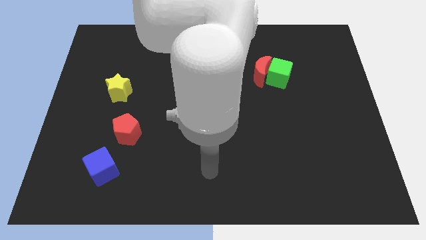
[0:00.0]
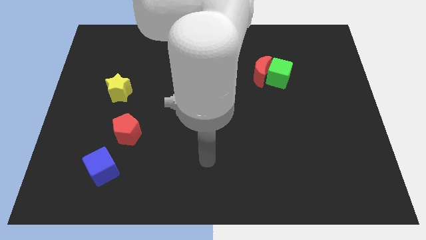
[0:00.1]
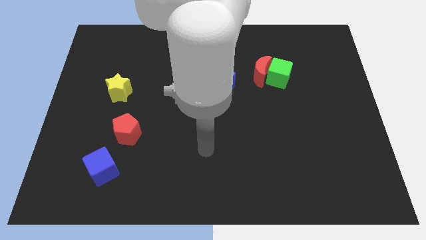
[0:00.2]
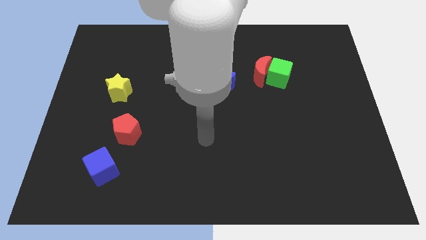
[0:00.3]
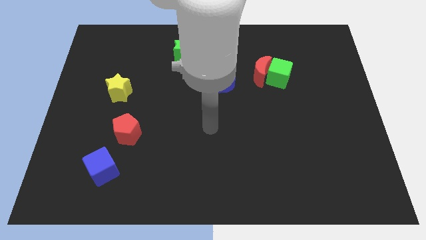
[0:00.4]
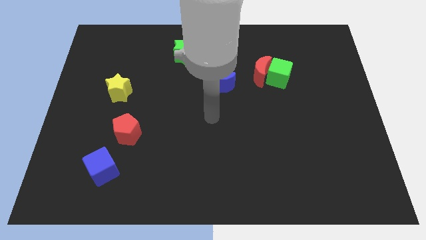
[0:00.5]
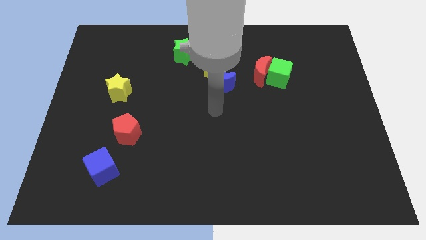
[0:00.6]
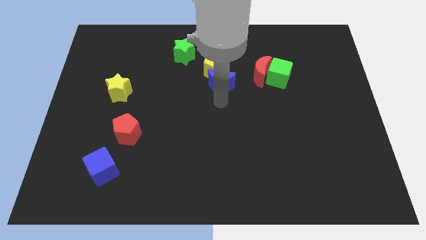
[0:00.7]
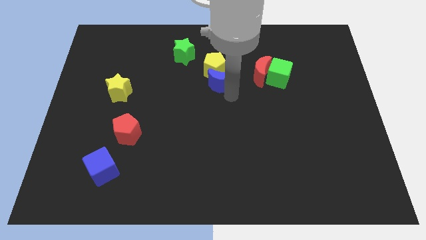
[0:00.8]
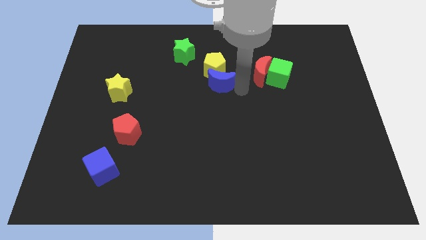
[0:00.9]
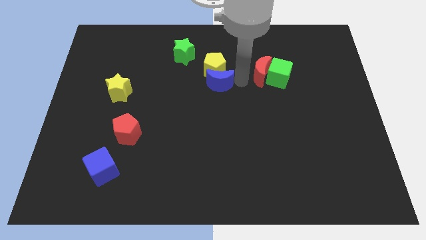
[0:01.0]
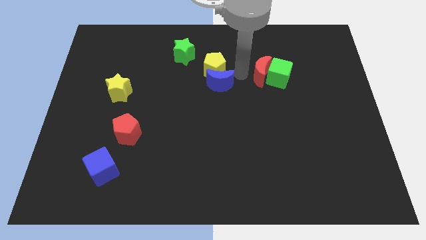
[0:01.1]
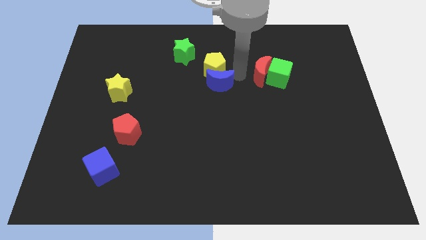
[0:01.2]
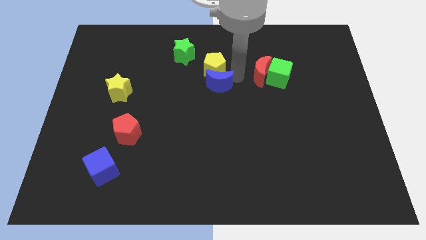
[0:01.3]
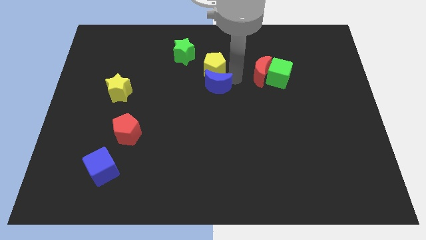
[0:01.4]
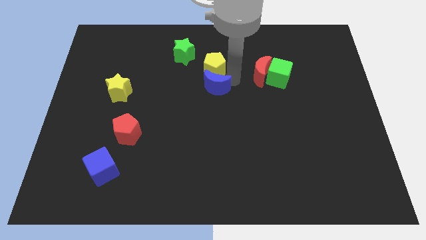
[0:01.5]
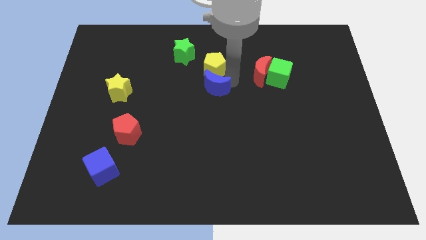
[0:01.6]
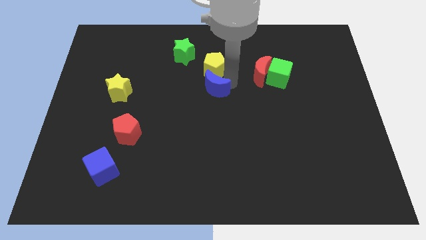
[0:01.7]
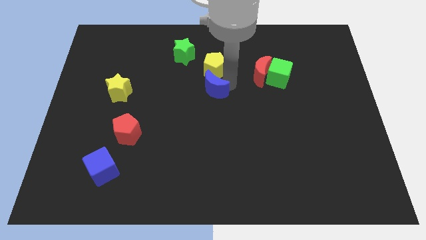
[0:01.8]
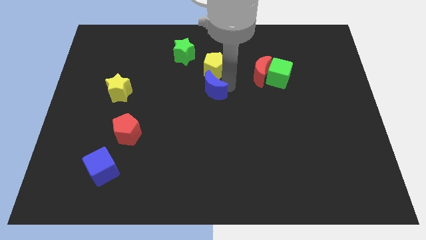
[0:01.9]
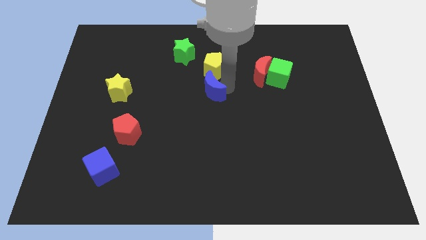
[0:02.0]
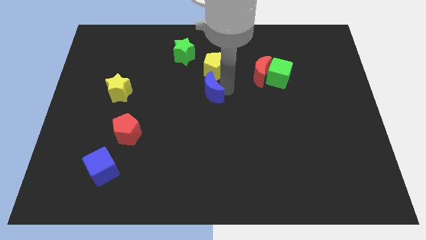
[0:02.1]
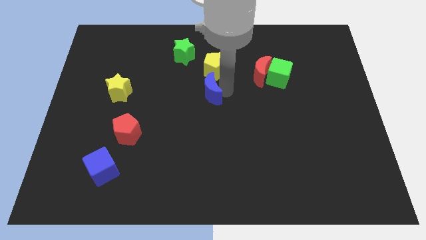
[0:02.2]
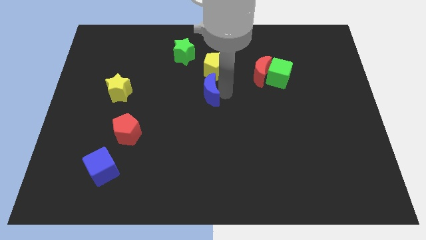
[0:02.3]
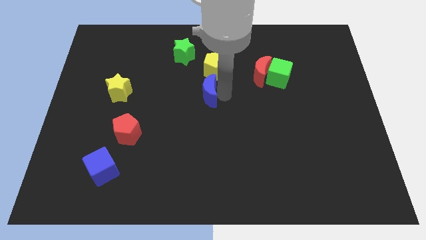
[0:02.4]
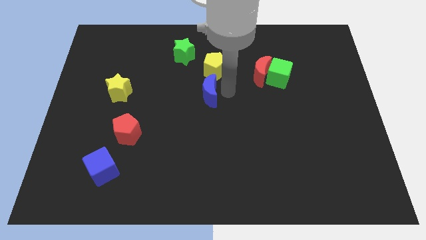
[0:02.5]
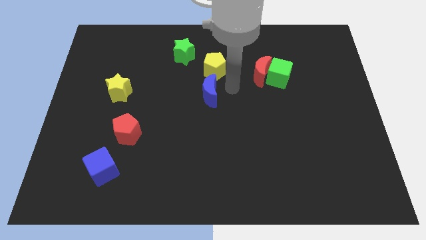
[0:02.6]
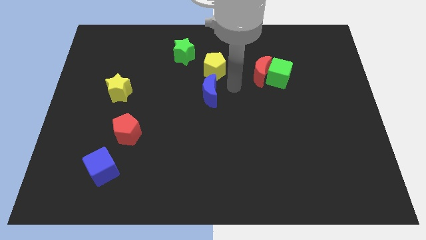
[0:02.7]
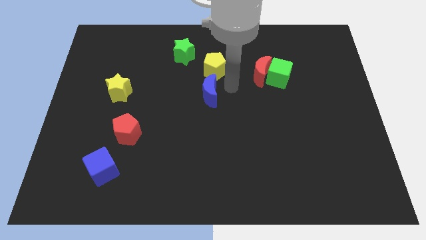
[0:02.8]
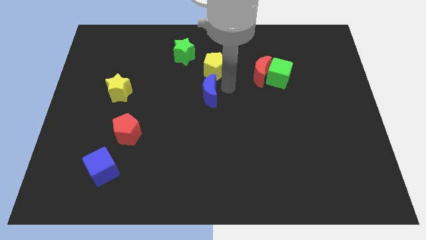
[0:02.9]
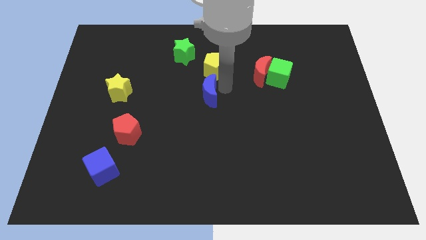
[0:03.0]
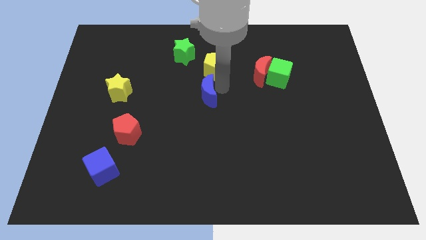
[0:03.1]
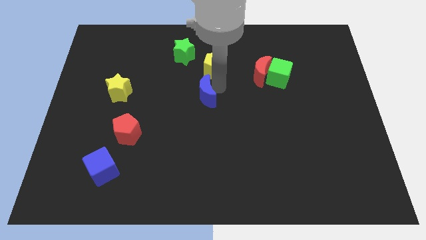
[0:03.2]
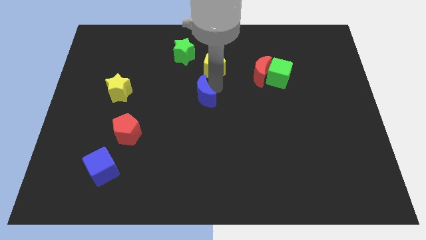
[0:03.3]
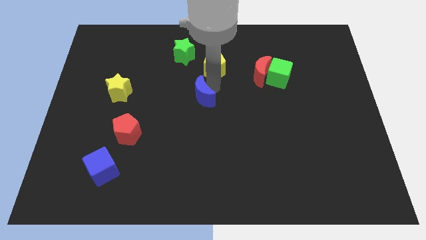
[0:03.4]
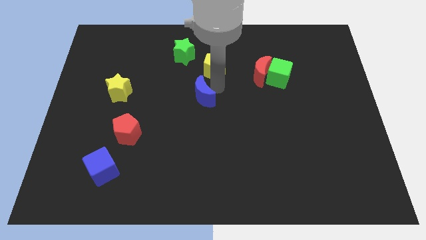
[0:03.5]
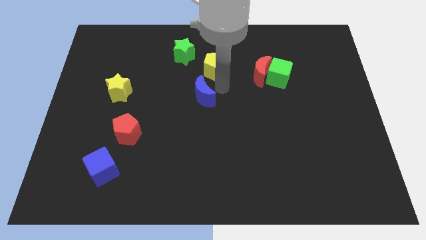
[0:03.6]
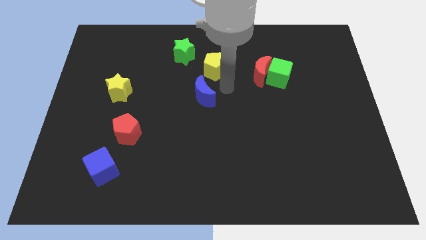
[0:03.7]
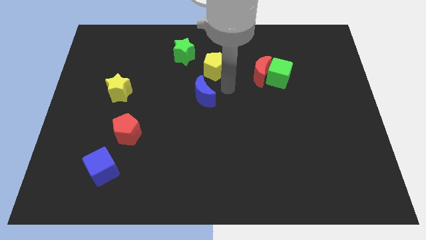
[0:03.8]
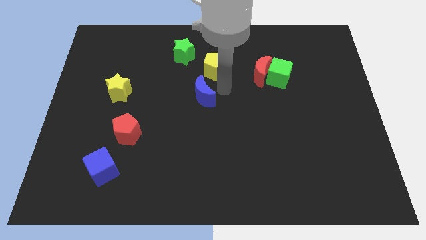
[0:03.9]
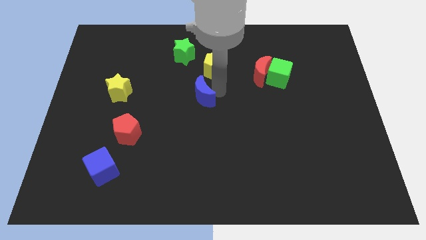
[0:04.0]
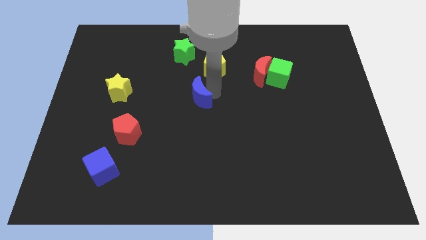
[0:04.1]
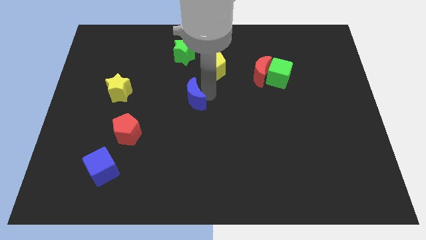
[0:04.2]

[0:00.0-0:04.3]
move the blue moon a bit diagonally downwards and to the left

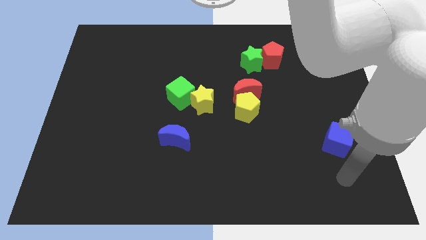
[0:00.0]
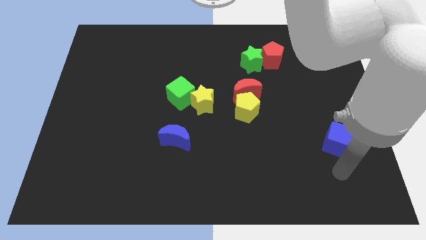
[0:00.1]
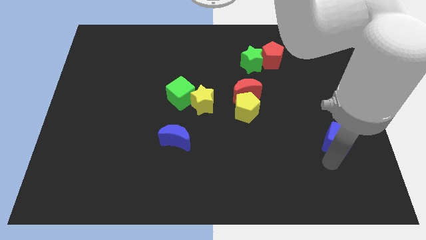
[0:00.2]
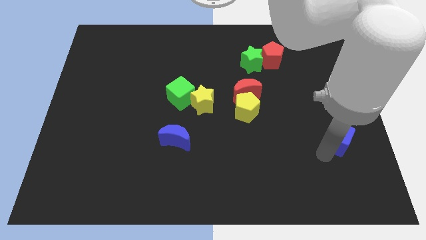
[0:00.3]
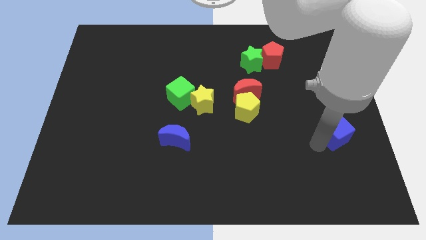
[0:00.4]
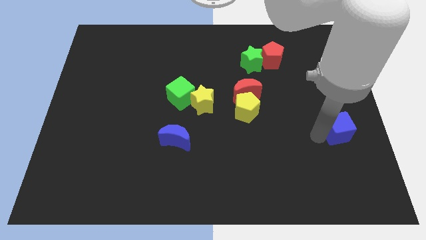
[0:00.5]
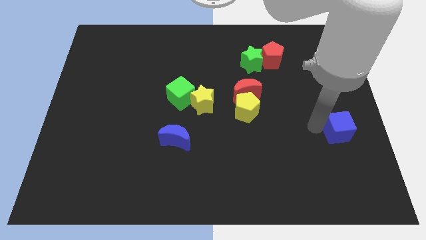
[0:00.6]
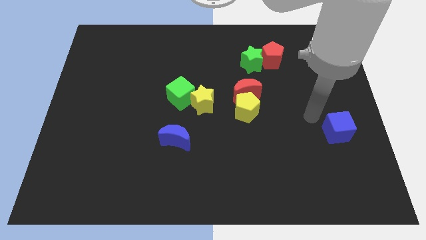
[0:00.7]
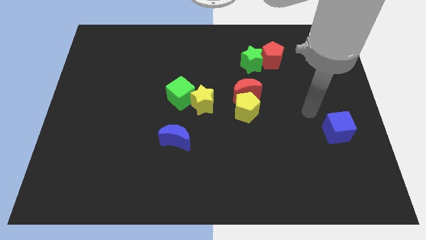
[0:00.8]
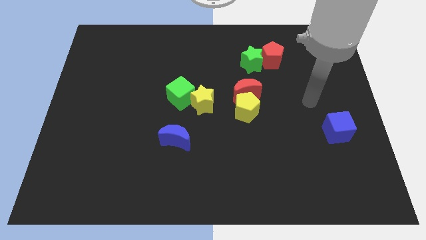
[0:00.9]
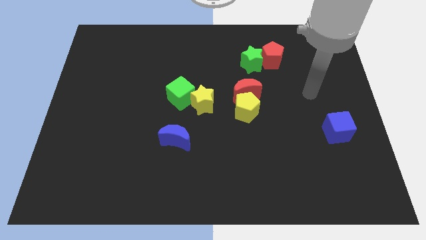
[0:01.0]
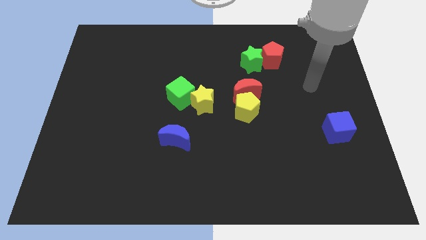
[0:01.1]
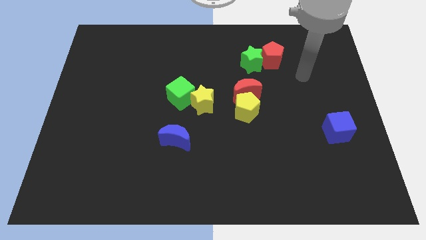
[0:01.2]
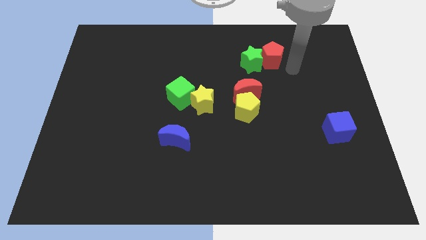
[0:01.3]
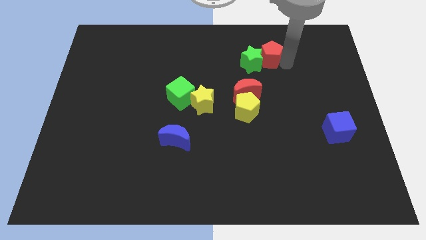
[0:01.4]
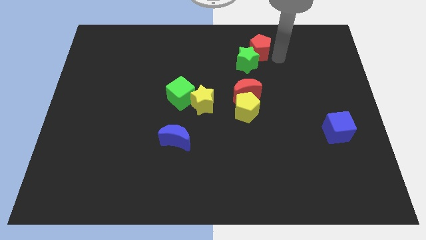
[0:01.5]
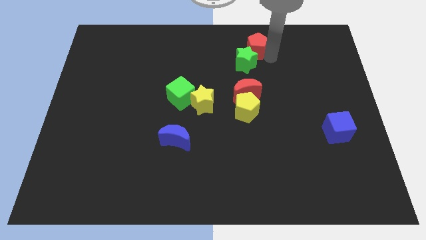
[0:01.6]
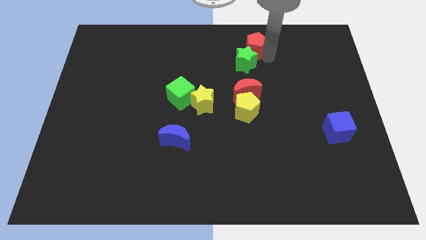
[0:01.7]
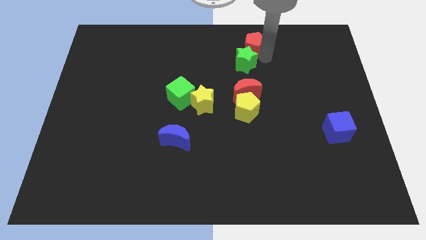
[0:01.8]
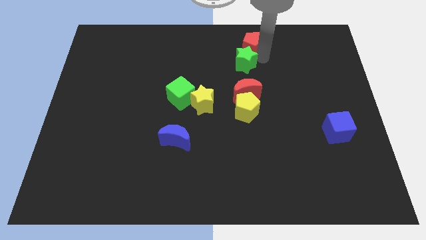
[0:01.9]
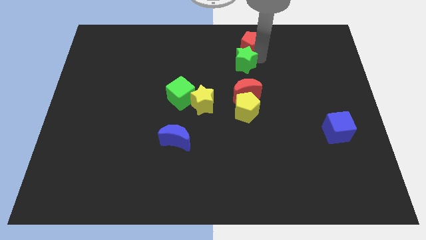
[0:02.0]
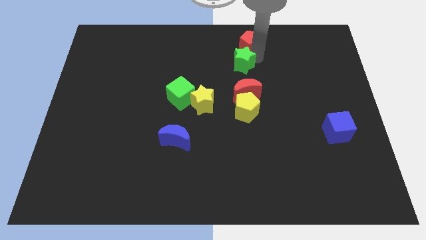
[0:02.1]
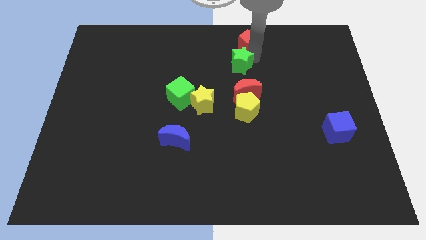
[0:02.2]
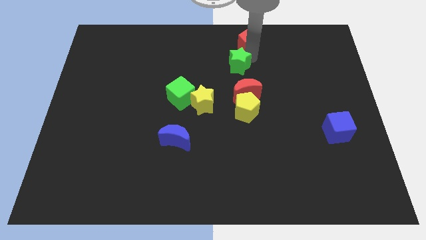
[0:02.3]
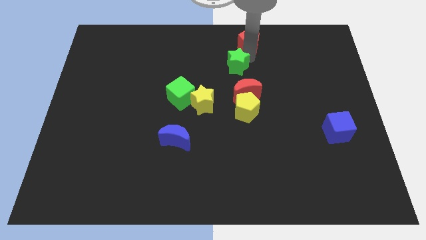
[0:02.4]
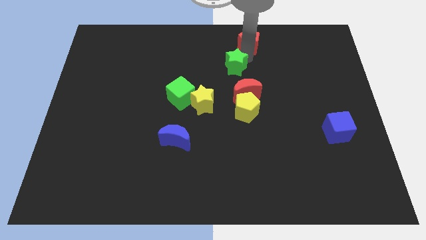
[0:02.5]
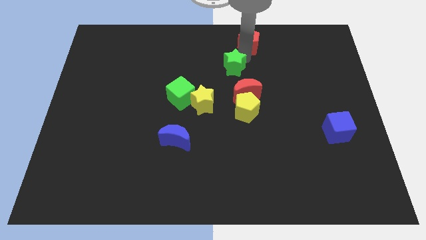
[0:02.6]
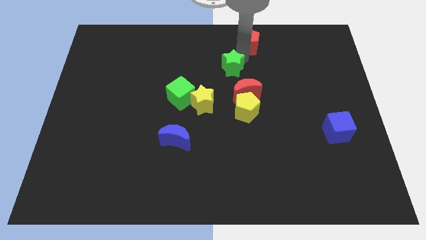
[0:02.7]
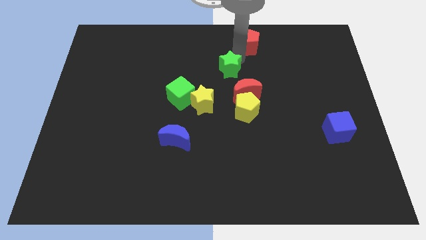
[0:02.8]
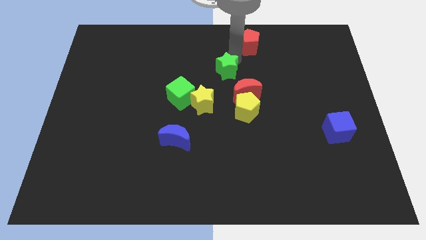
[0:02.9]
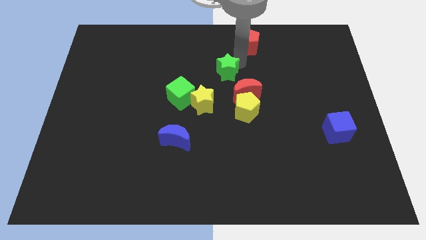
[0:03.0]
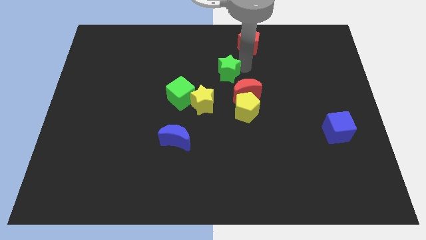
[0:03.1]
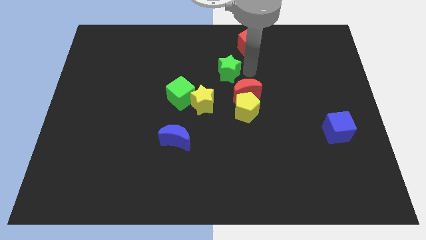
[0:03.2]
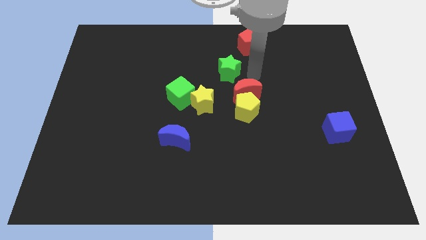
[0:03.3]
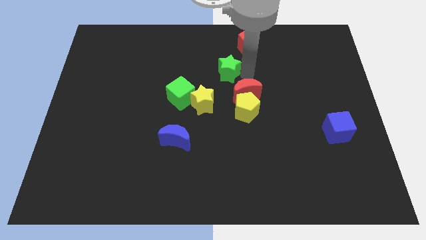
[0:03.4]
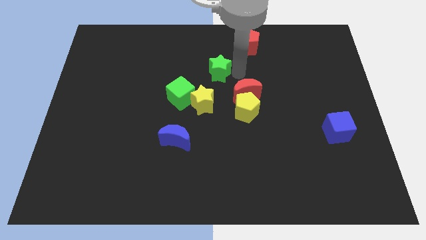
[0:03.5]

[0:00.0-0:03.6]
move the green star a bit left
